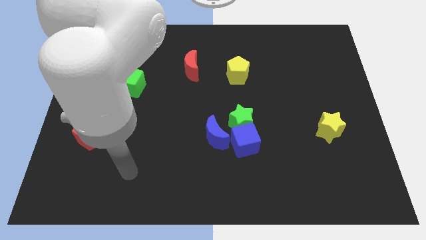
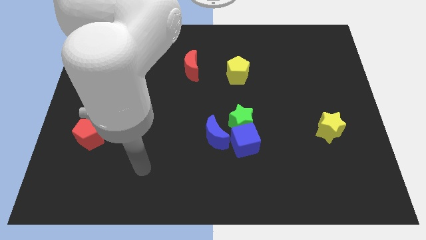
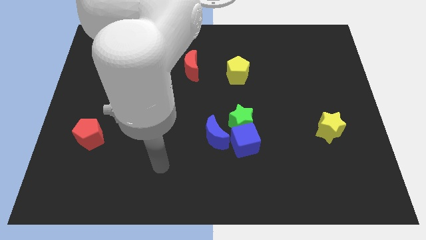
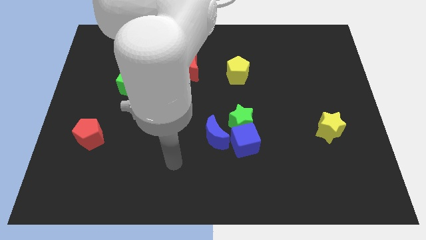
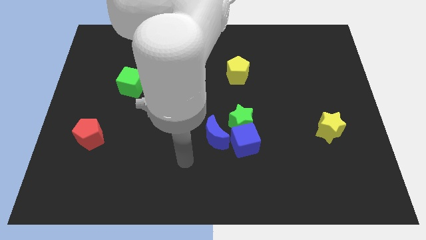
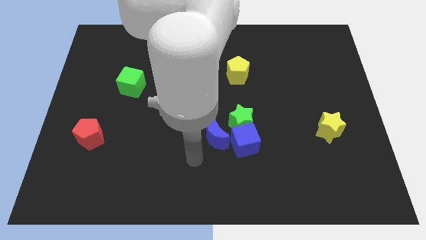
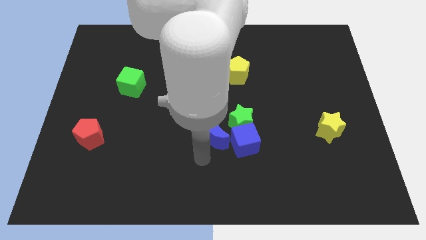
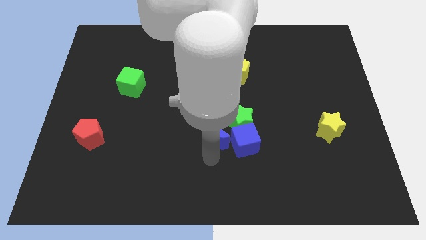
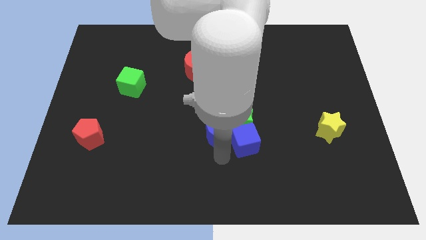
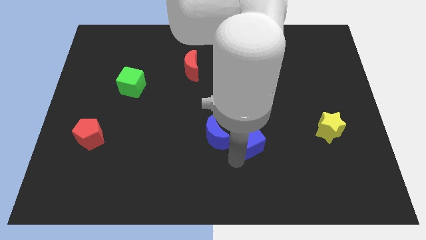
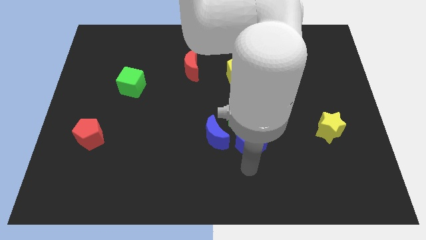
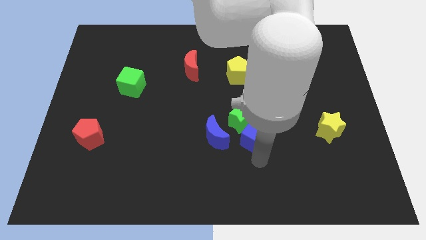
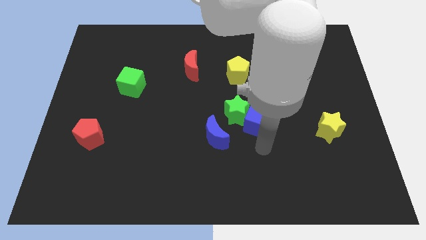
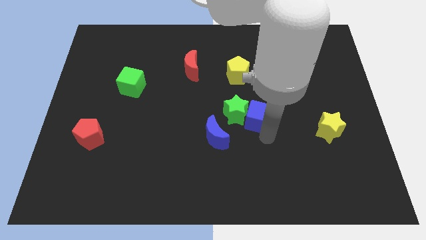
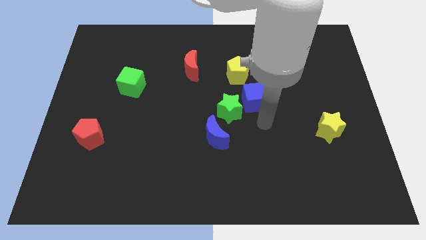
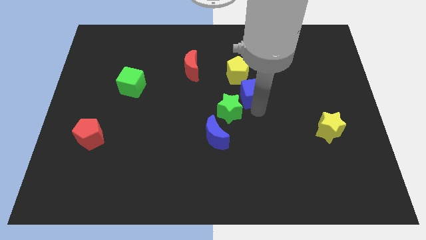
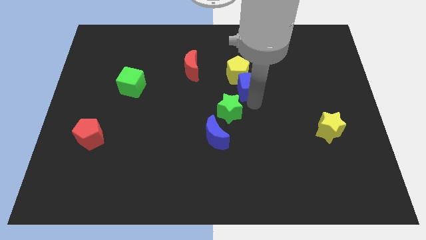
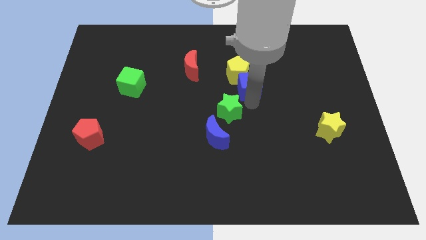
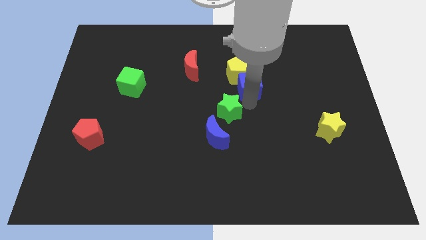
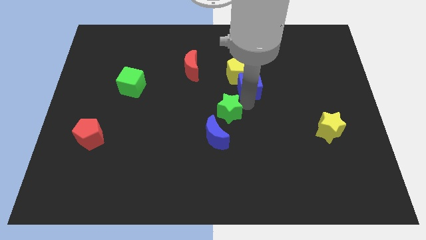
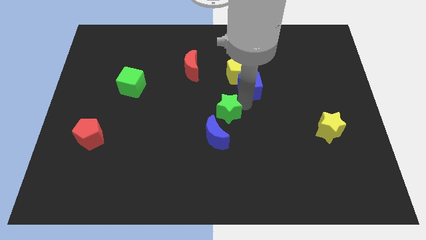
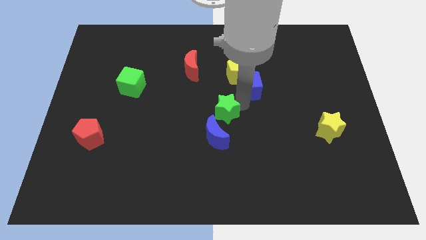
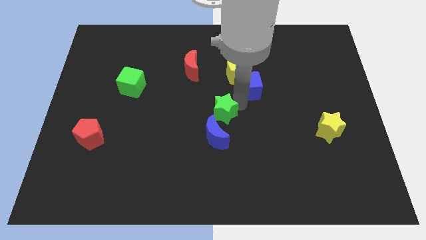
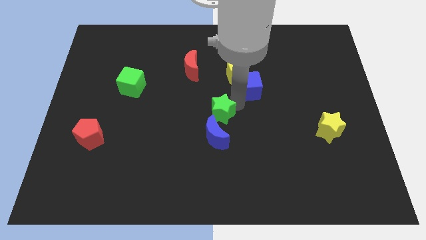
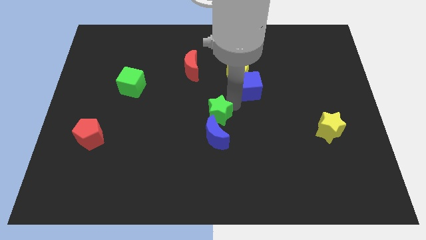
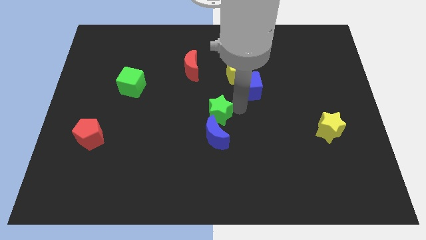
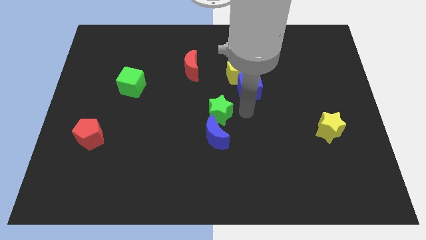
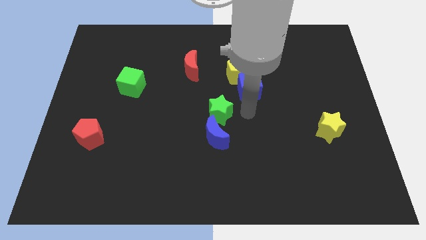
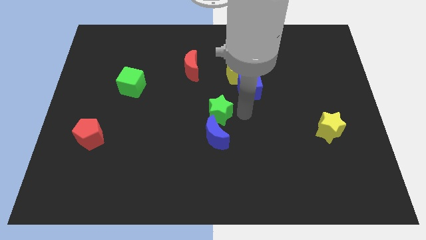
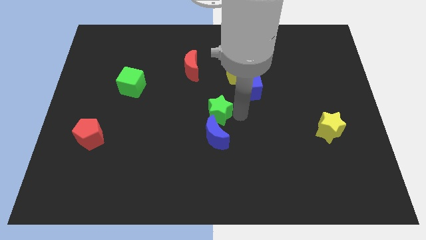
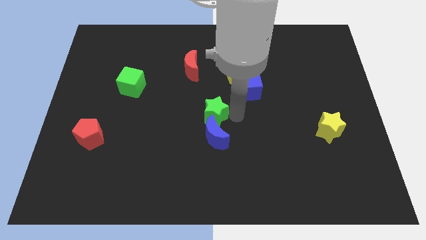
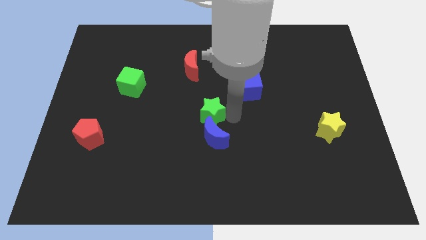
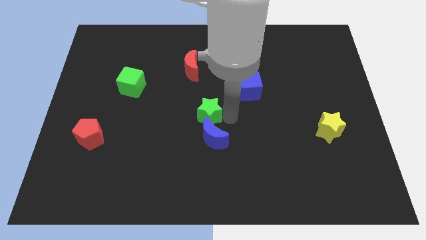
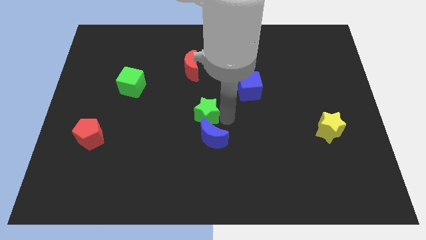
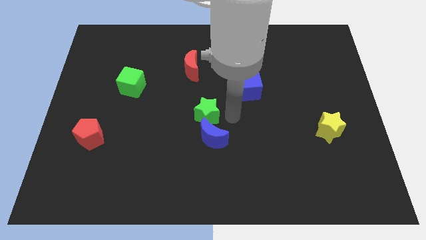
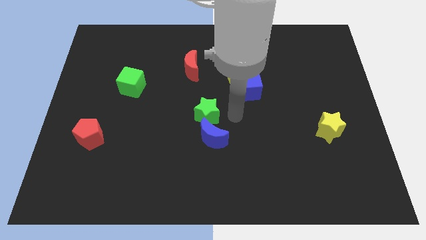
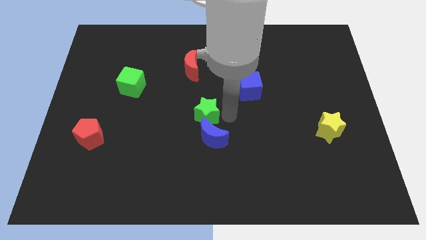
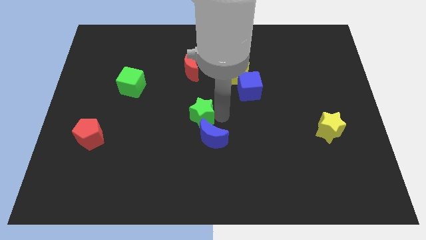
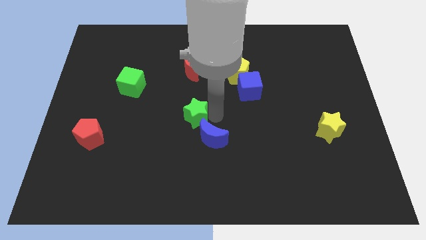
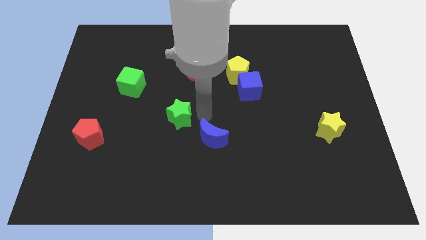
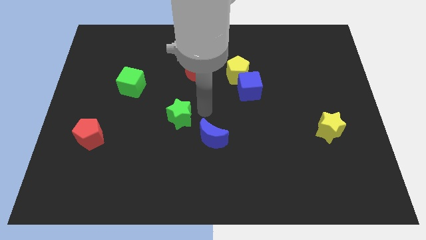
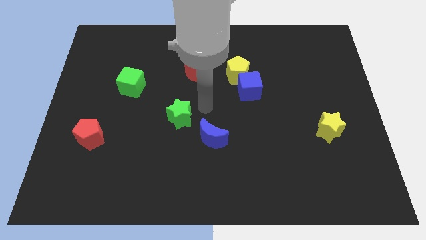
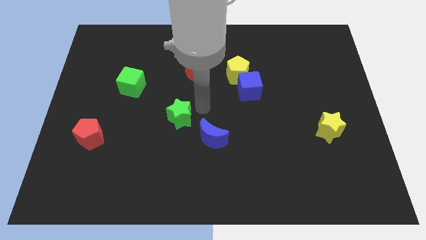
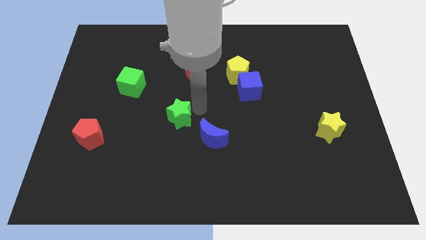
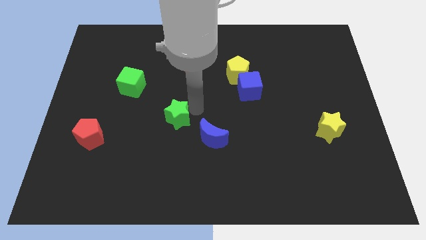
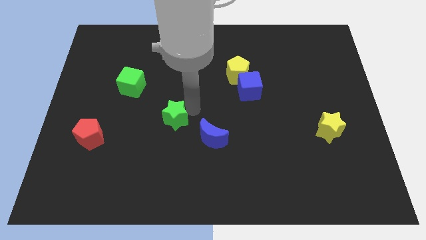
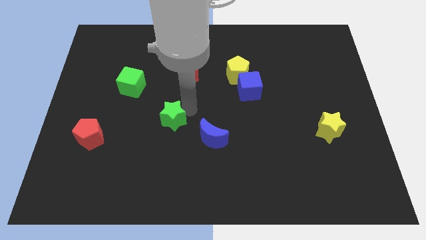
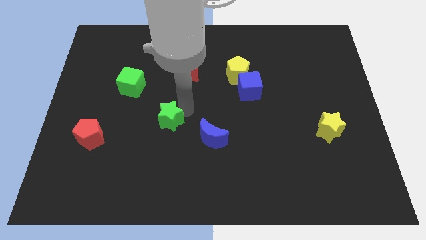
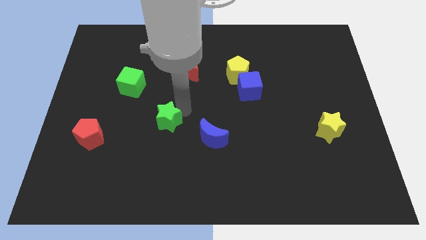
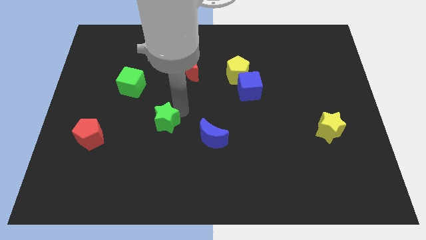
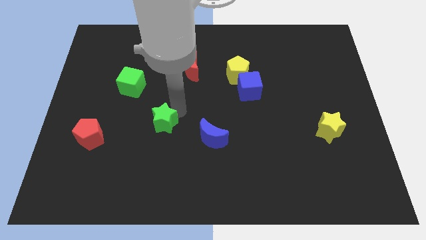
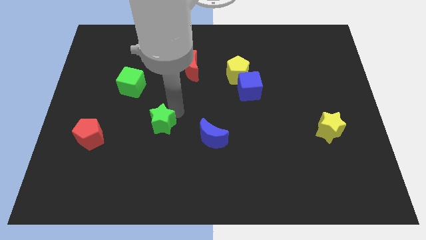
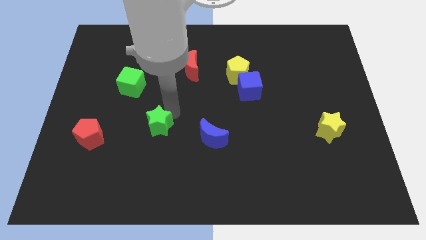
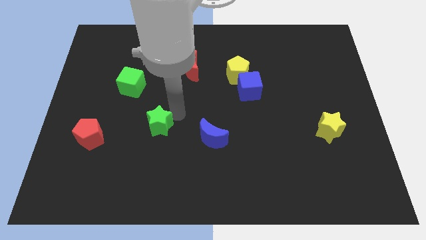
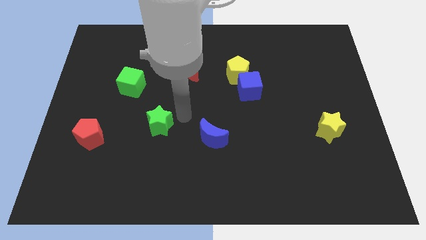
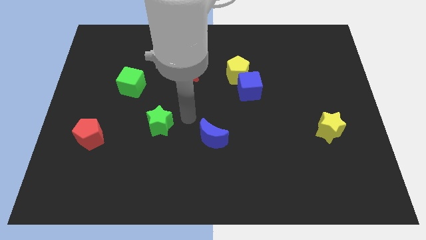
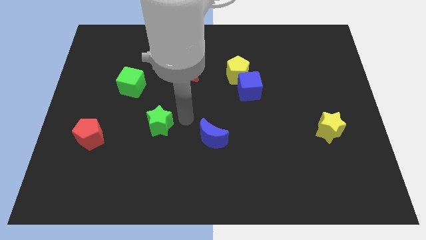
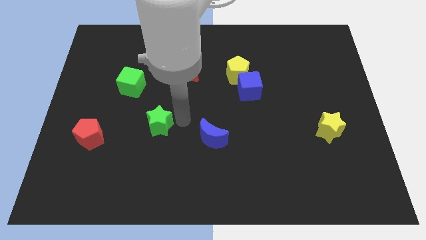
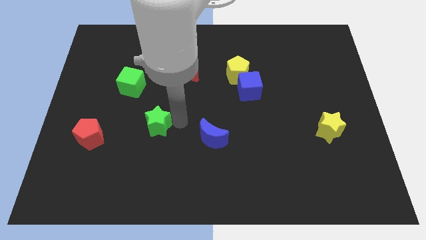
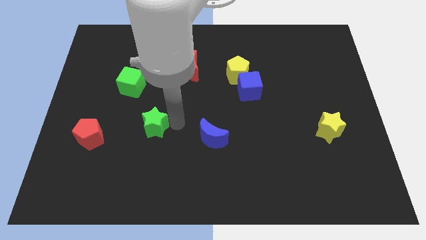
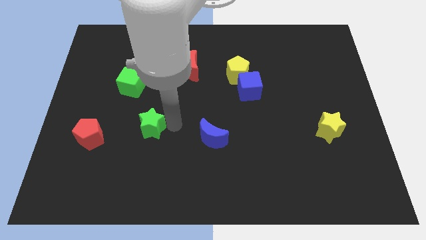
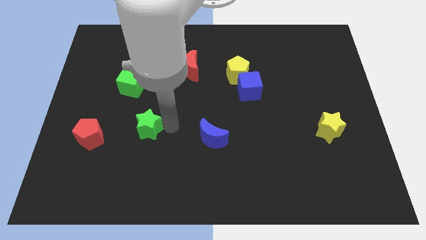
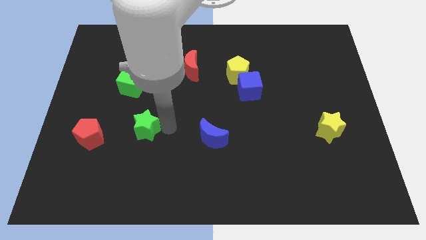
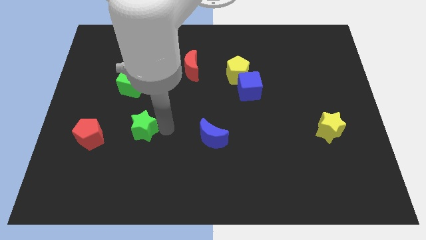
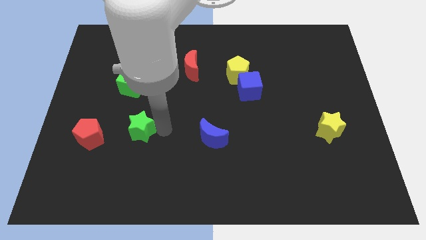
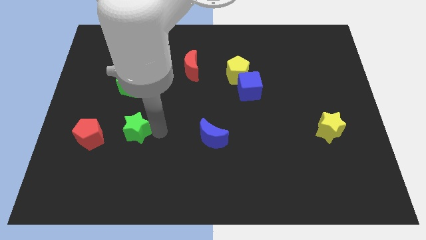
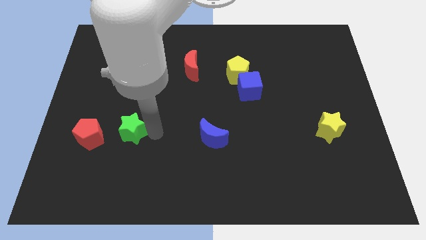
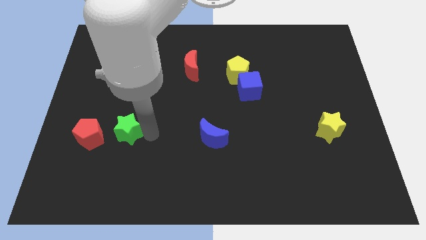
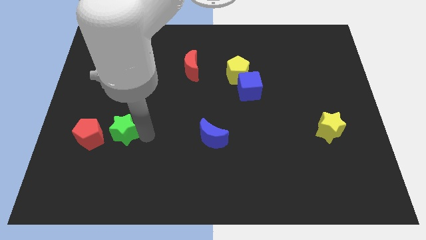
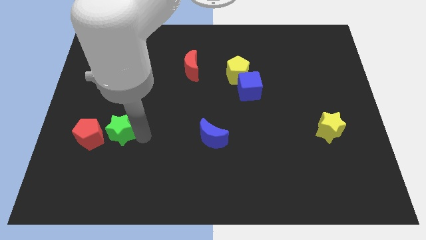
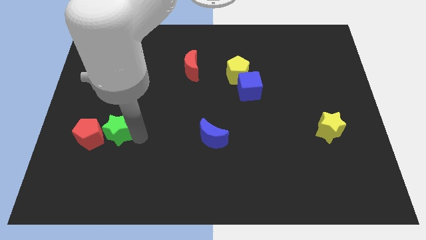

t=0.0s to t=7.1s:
put the green star towards the red pentagon

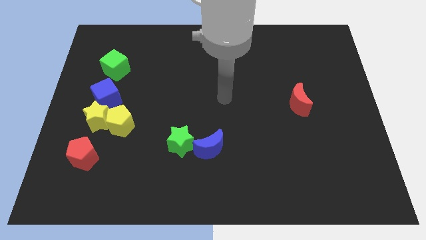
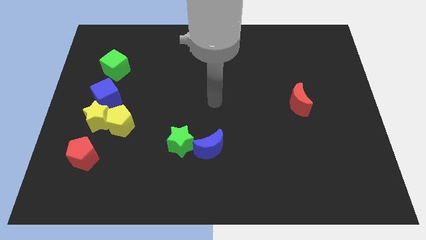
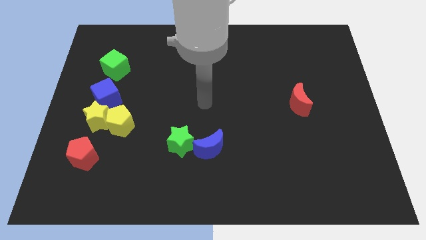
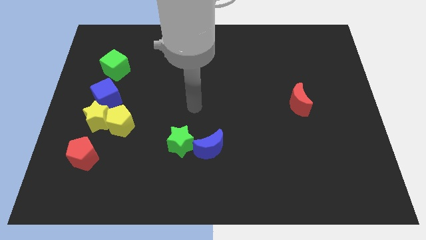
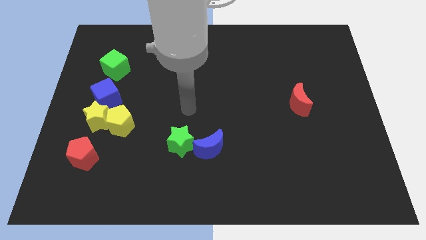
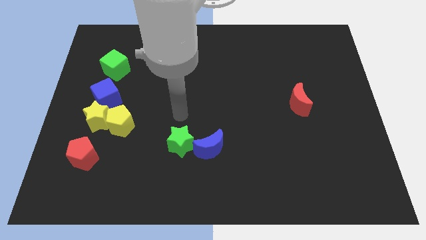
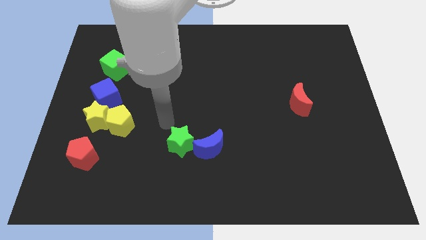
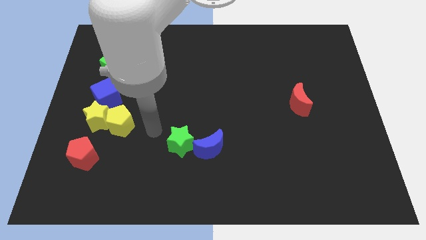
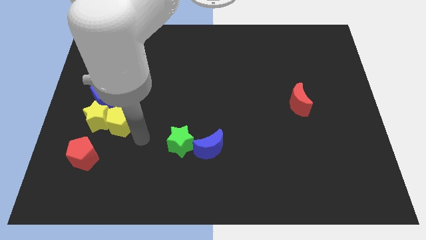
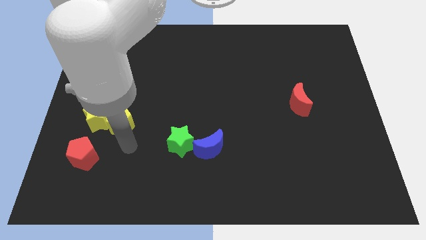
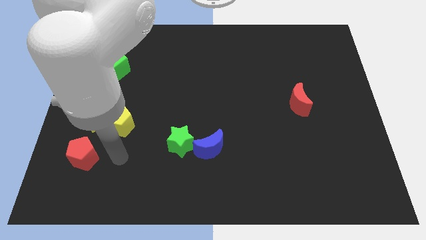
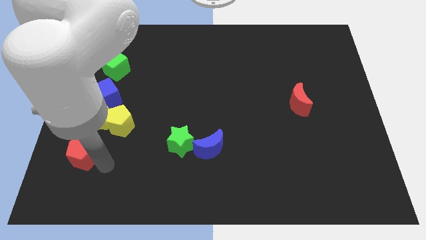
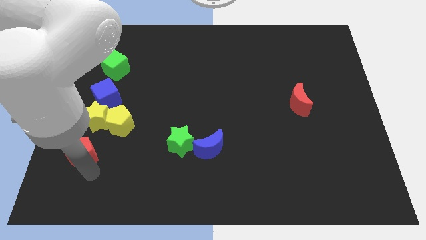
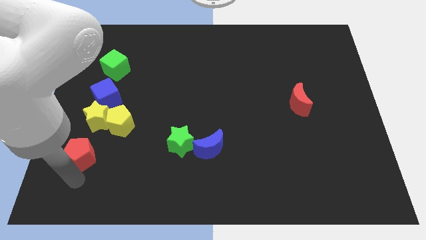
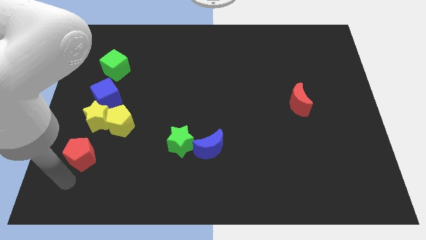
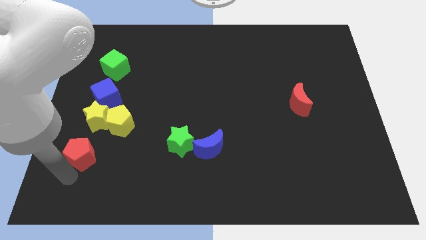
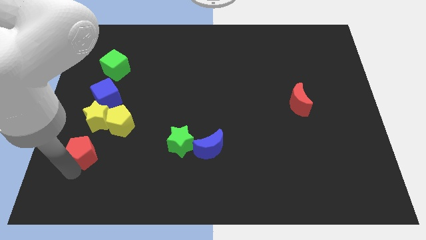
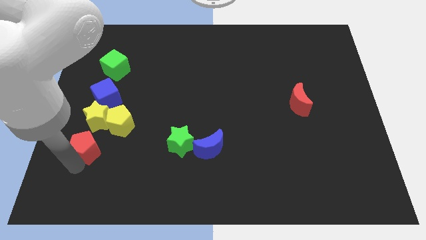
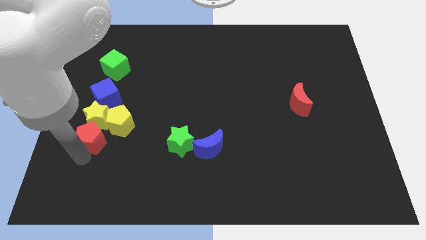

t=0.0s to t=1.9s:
push the red pentagon to the yellow star
